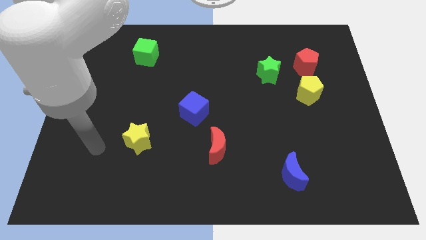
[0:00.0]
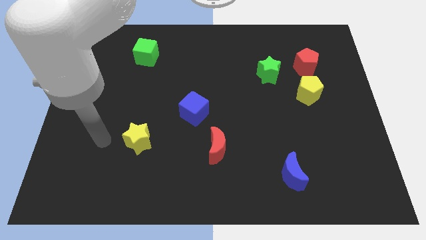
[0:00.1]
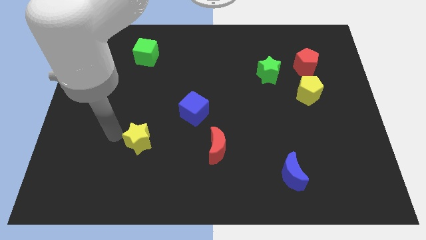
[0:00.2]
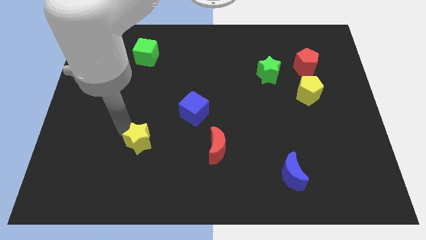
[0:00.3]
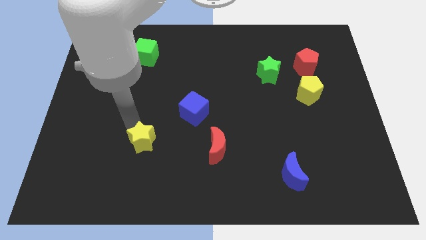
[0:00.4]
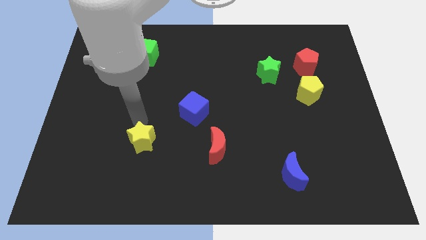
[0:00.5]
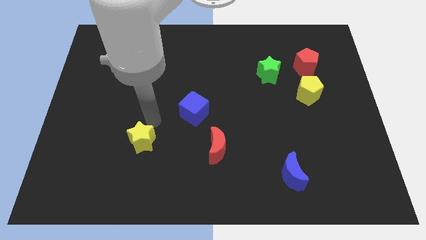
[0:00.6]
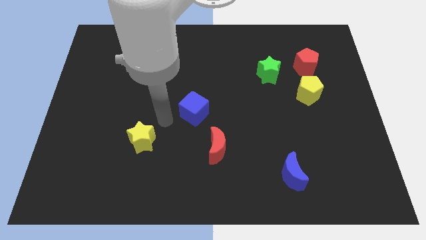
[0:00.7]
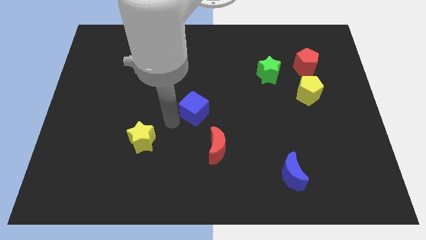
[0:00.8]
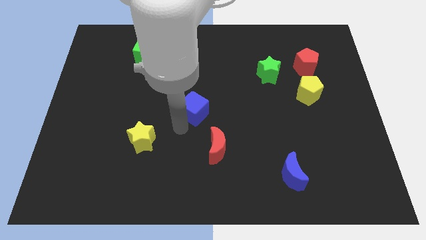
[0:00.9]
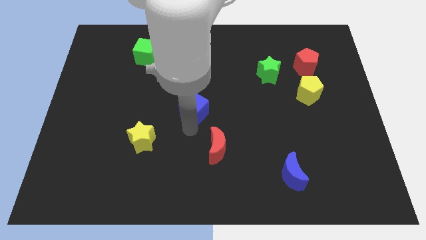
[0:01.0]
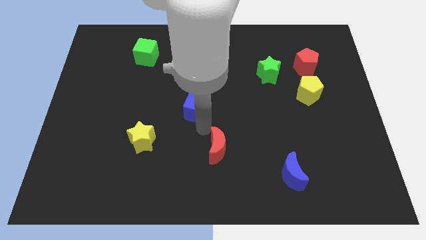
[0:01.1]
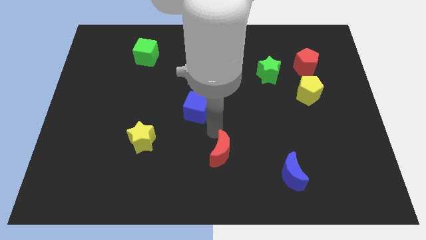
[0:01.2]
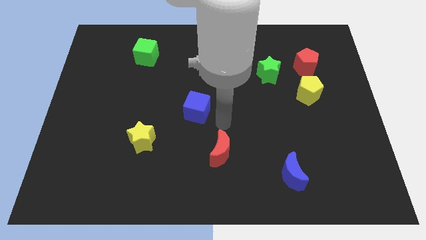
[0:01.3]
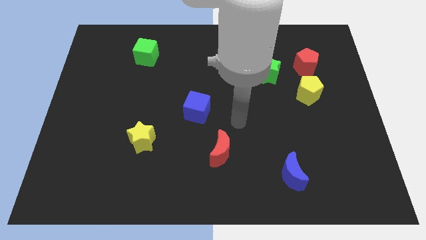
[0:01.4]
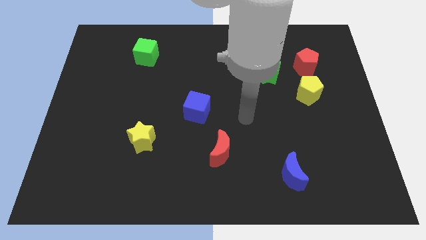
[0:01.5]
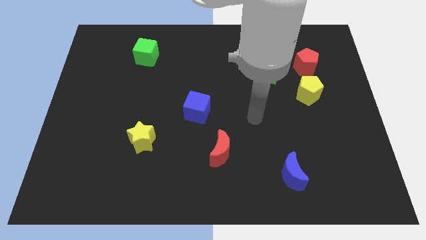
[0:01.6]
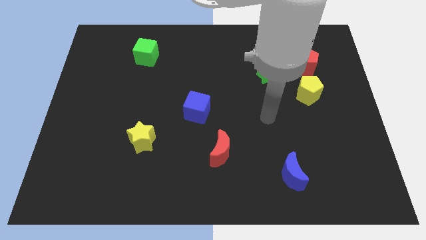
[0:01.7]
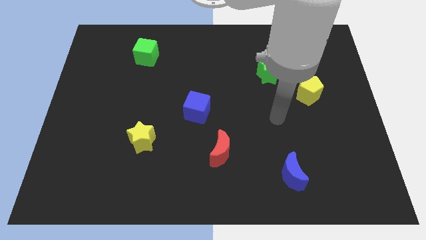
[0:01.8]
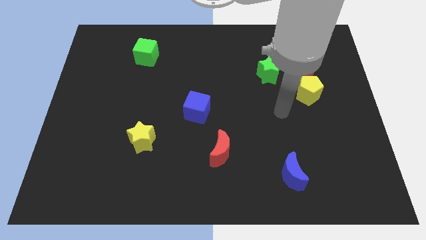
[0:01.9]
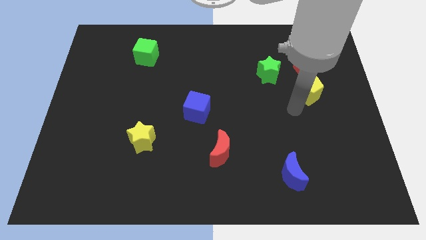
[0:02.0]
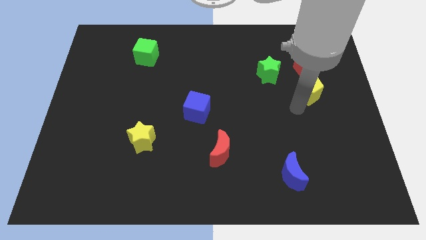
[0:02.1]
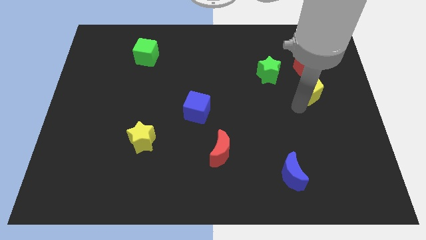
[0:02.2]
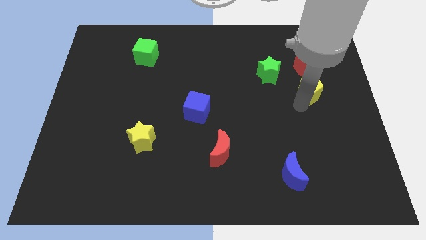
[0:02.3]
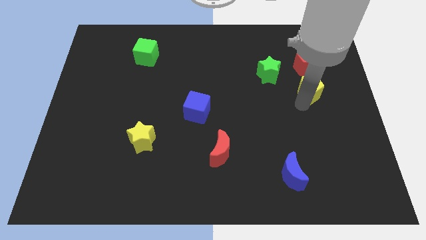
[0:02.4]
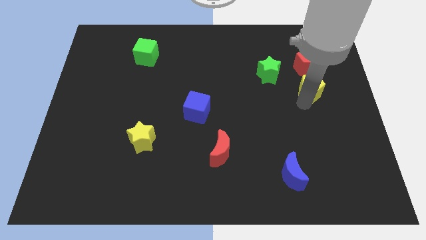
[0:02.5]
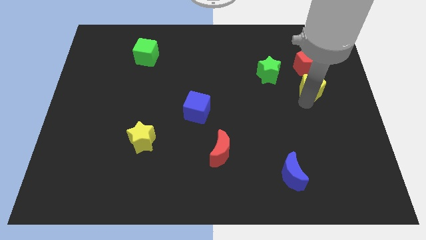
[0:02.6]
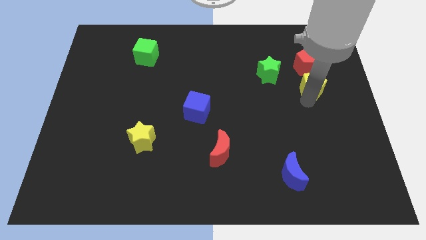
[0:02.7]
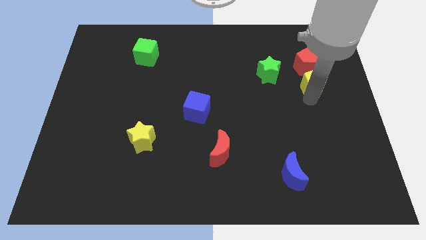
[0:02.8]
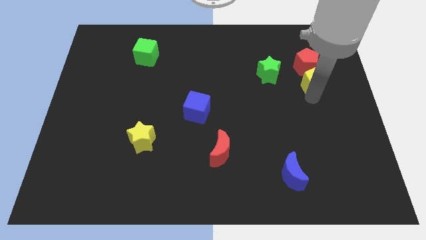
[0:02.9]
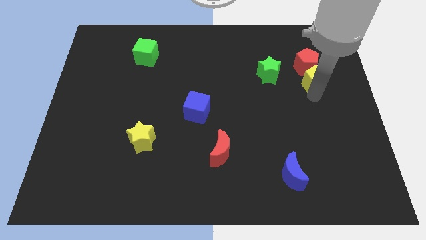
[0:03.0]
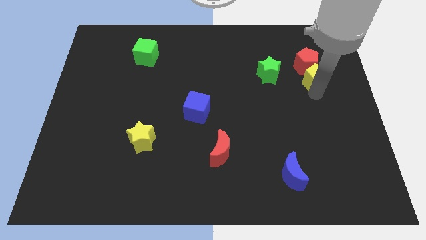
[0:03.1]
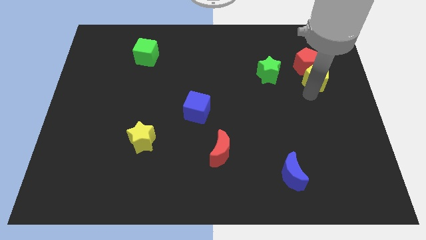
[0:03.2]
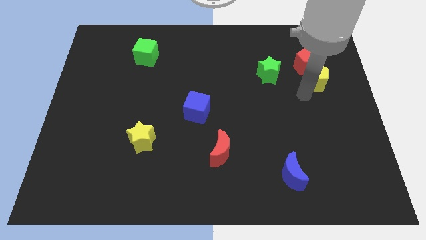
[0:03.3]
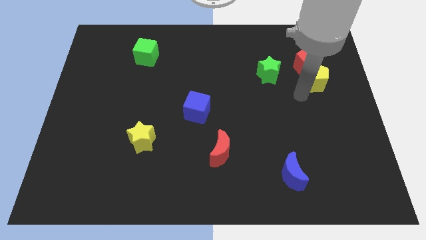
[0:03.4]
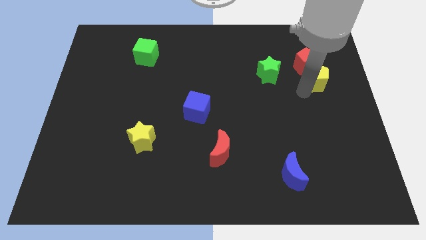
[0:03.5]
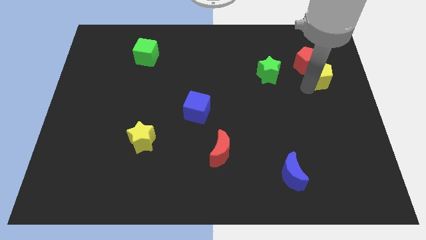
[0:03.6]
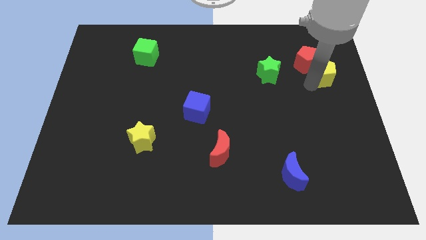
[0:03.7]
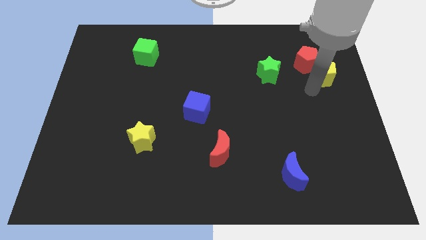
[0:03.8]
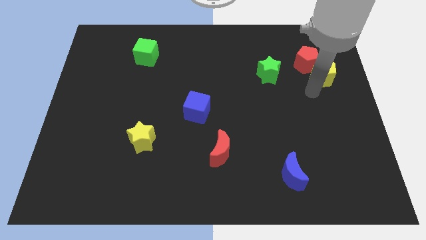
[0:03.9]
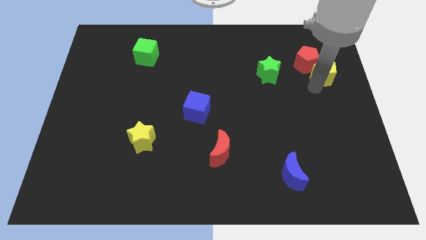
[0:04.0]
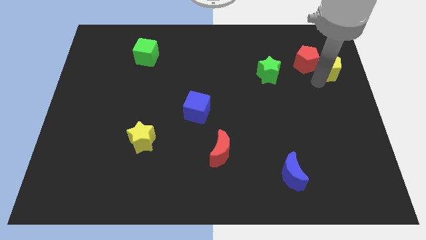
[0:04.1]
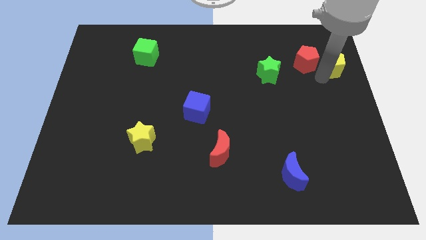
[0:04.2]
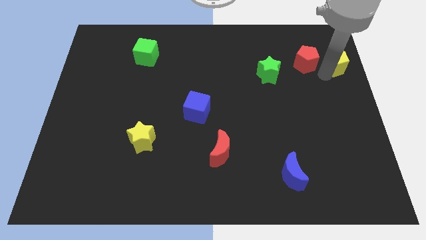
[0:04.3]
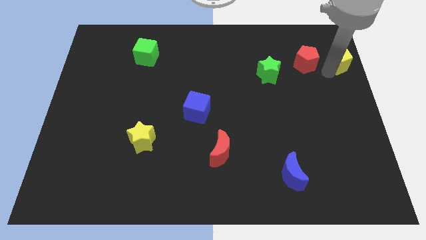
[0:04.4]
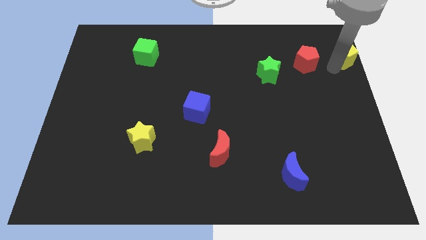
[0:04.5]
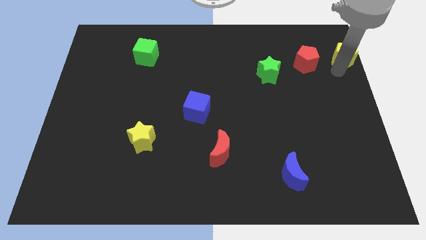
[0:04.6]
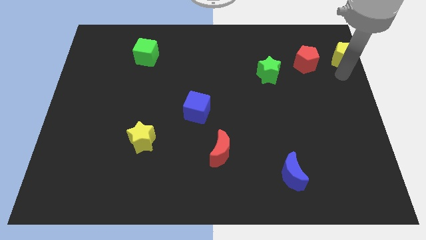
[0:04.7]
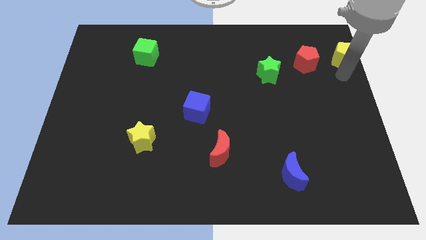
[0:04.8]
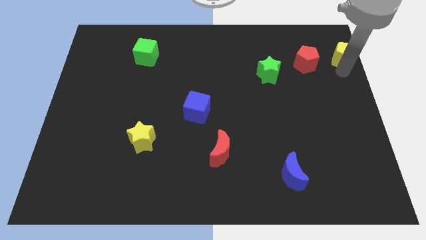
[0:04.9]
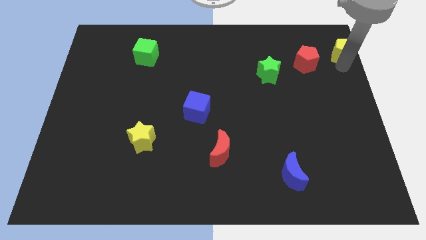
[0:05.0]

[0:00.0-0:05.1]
put the yellow pentagon to the top right corner

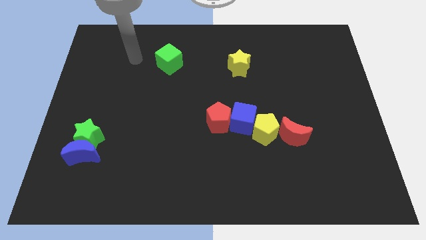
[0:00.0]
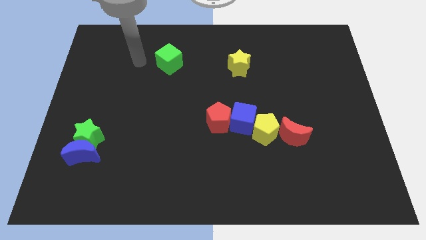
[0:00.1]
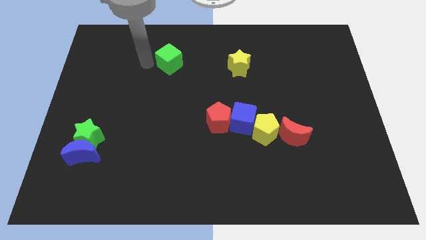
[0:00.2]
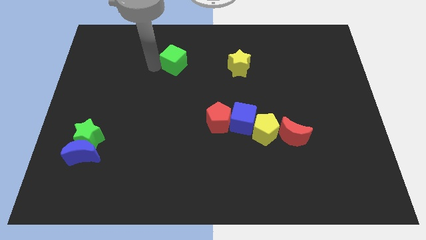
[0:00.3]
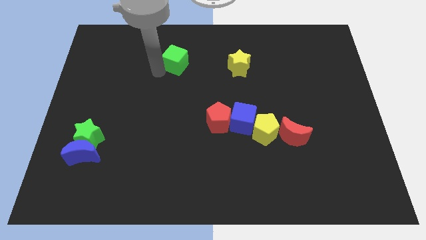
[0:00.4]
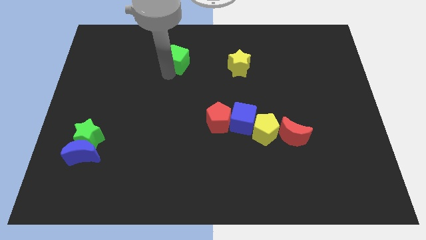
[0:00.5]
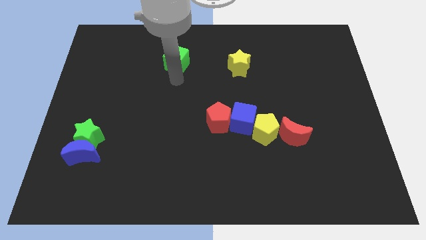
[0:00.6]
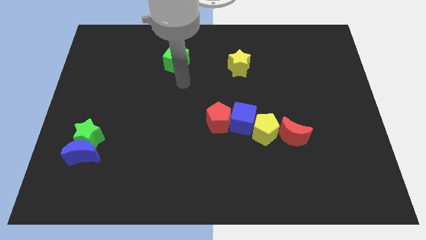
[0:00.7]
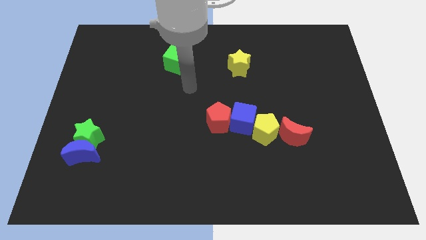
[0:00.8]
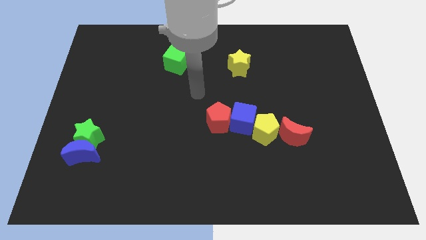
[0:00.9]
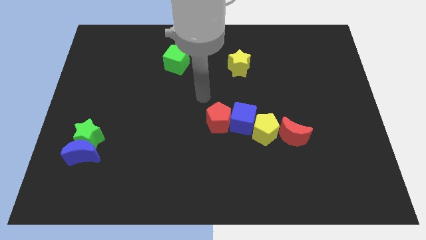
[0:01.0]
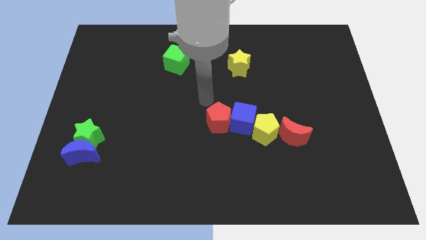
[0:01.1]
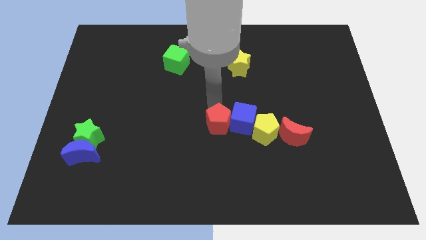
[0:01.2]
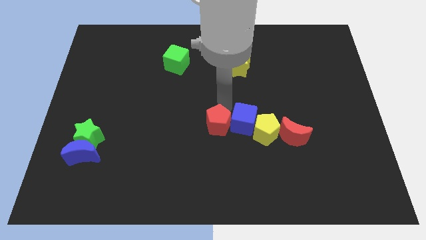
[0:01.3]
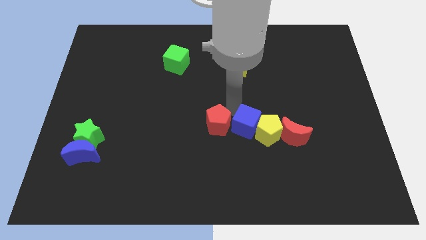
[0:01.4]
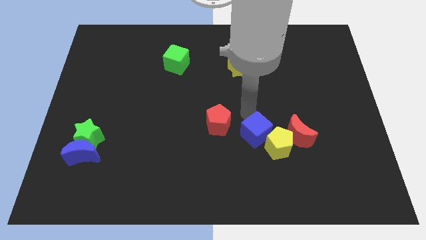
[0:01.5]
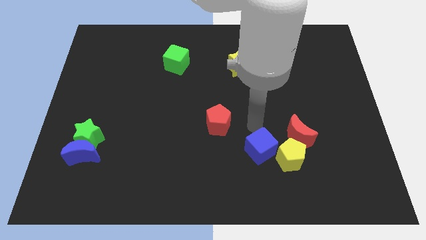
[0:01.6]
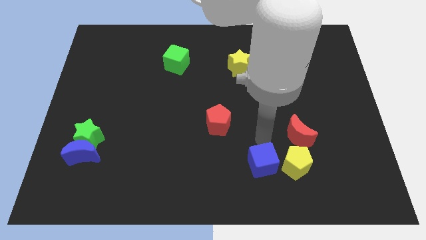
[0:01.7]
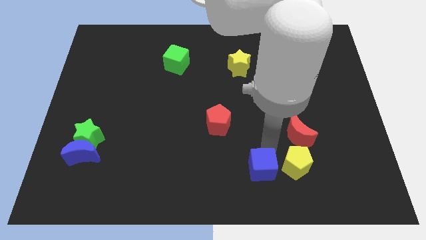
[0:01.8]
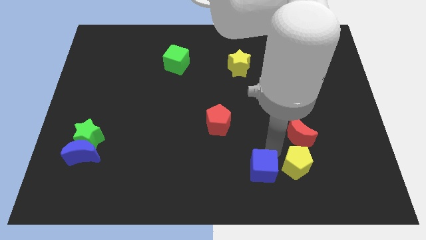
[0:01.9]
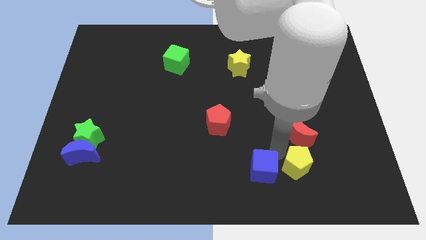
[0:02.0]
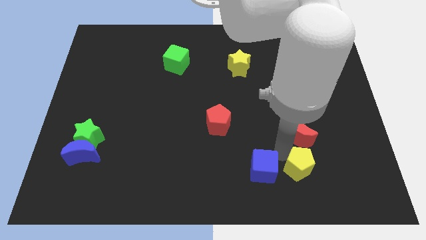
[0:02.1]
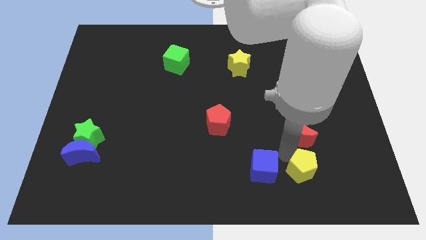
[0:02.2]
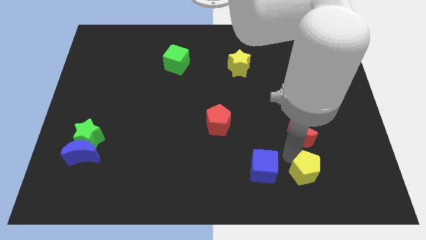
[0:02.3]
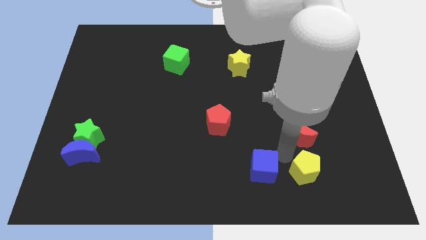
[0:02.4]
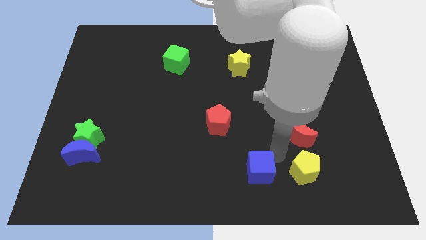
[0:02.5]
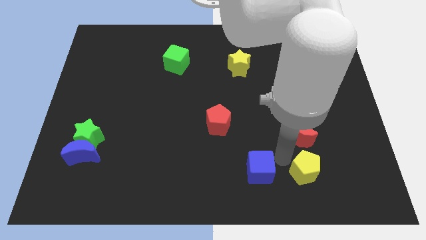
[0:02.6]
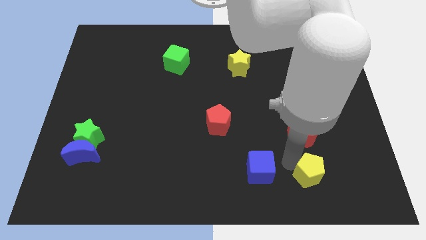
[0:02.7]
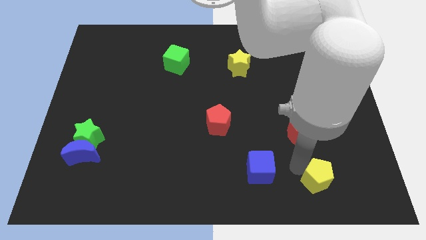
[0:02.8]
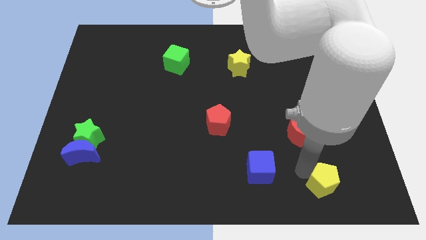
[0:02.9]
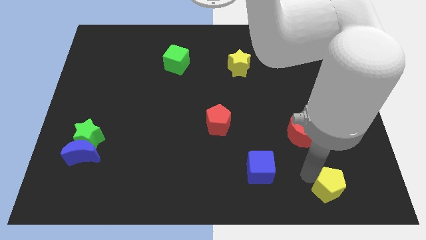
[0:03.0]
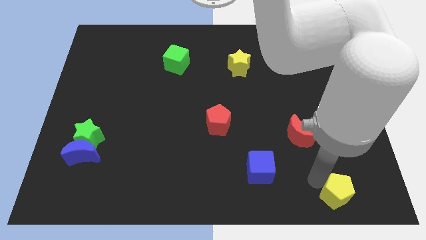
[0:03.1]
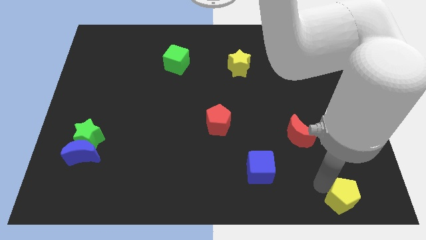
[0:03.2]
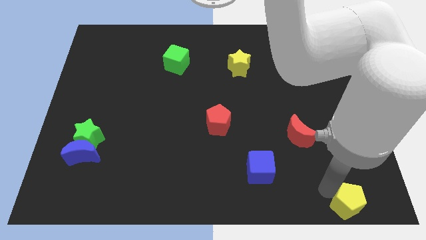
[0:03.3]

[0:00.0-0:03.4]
push the yellow pentagon to the lower right corner
